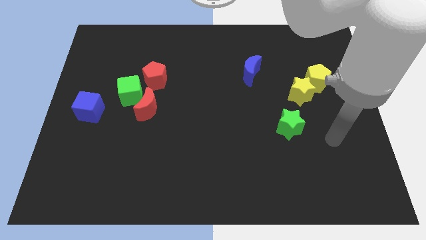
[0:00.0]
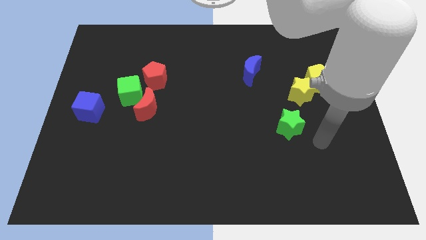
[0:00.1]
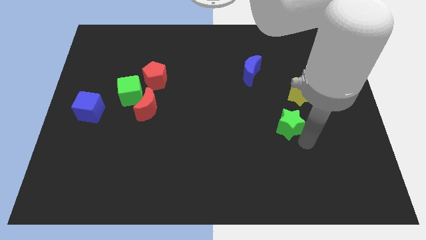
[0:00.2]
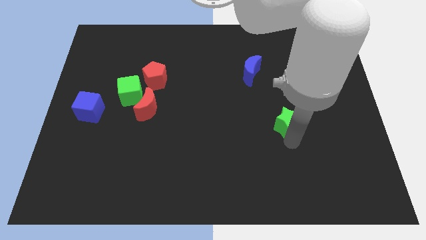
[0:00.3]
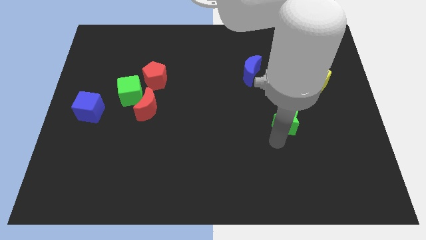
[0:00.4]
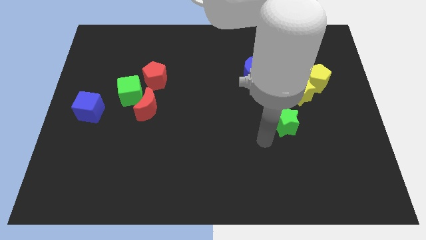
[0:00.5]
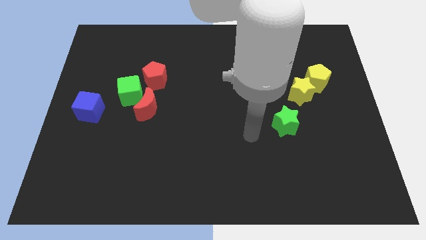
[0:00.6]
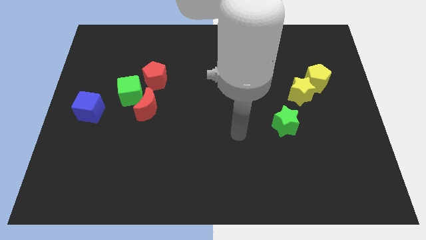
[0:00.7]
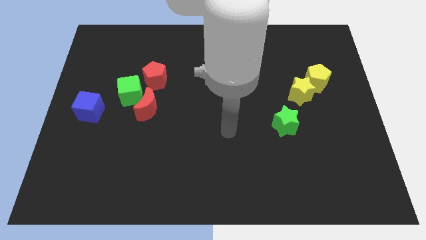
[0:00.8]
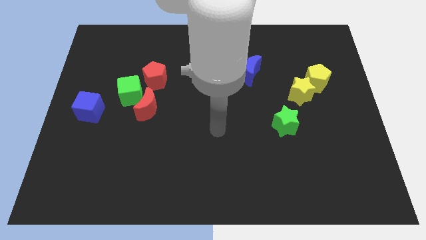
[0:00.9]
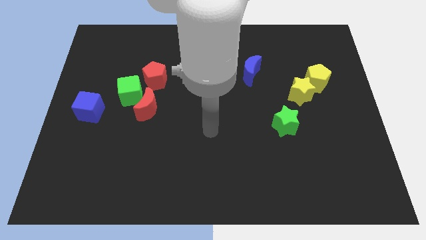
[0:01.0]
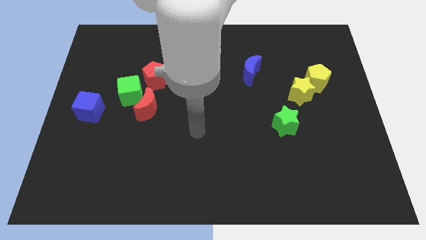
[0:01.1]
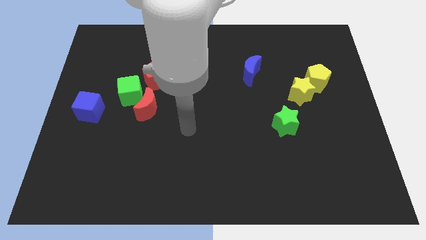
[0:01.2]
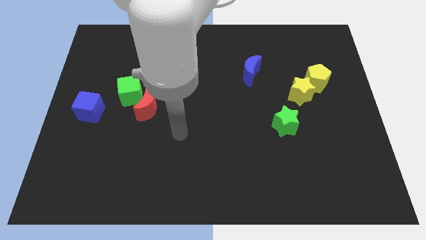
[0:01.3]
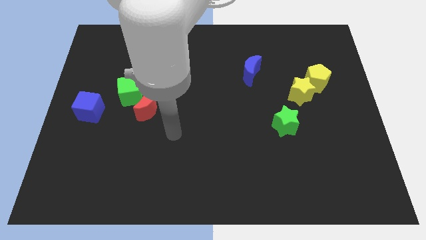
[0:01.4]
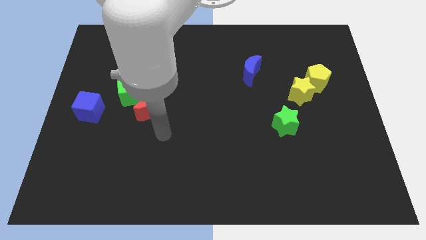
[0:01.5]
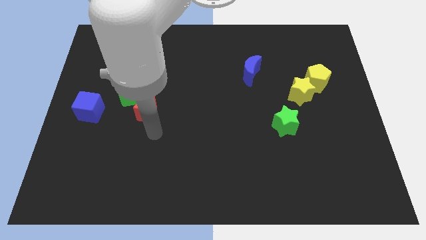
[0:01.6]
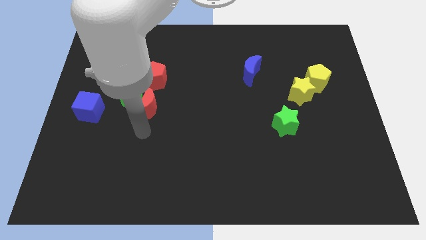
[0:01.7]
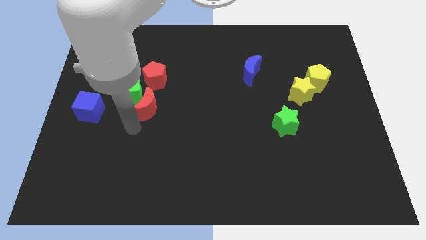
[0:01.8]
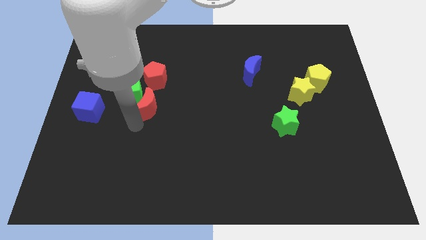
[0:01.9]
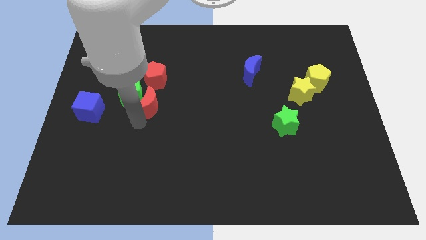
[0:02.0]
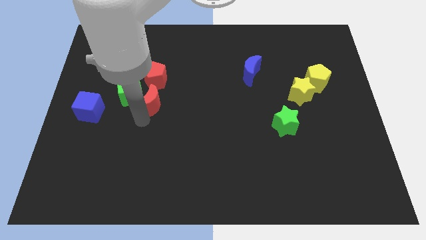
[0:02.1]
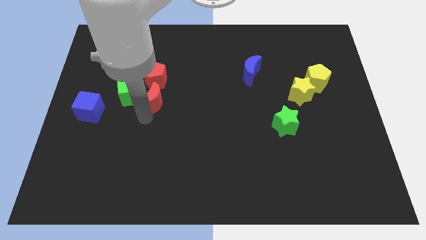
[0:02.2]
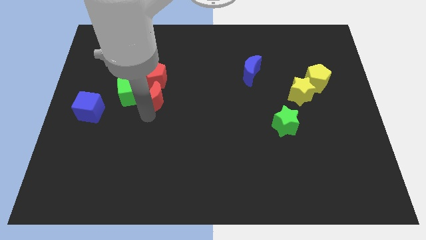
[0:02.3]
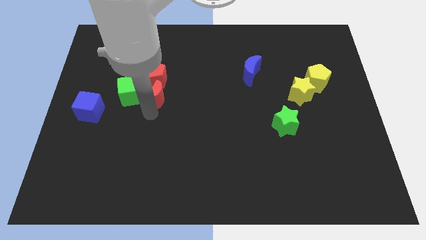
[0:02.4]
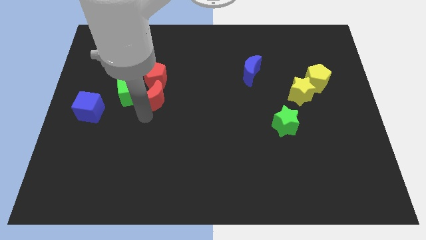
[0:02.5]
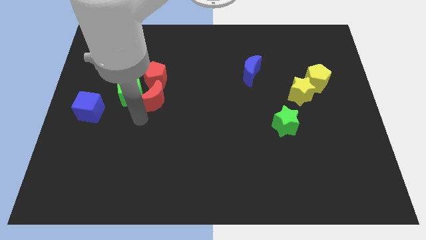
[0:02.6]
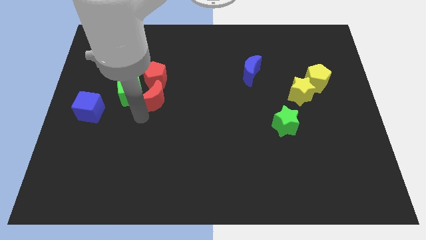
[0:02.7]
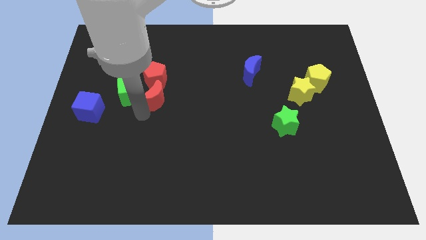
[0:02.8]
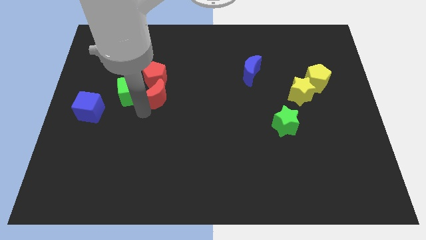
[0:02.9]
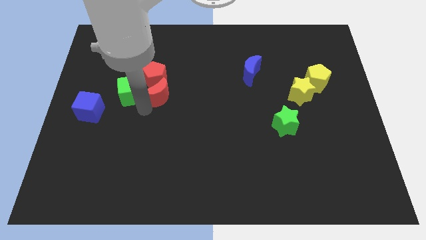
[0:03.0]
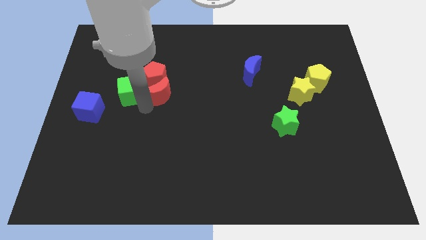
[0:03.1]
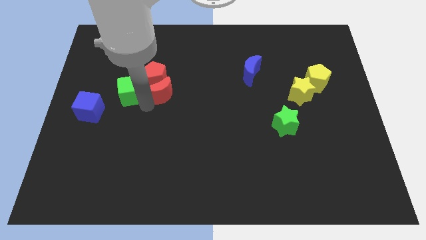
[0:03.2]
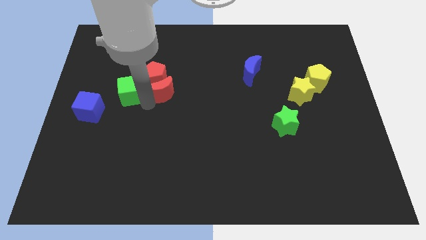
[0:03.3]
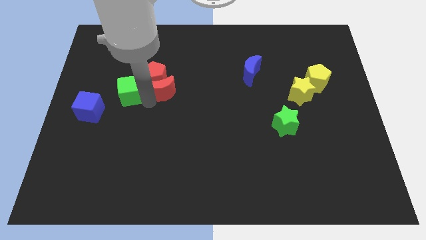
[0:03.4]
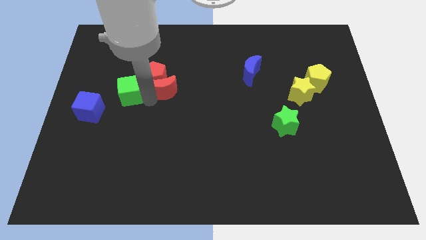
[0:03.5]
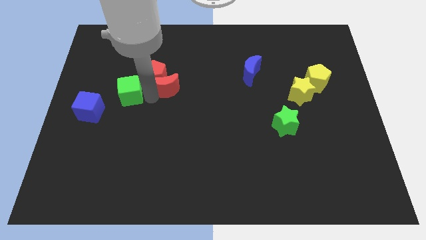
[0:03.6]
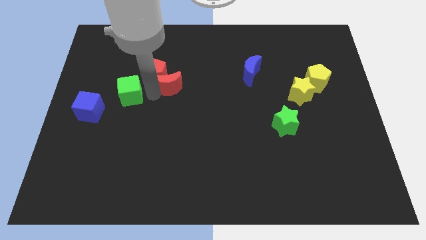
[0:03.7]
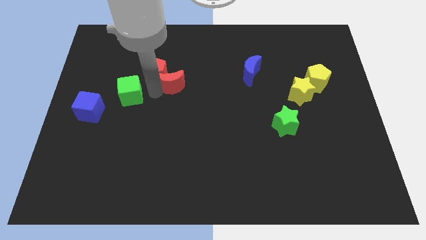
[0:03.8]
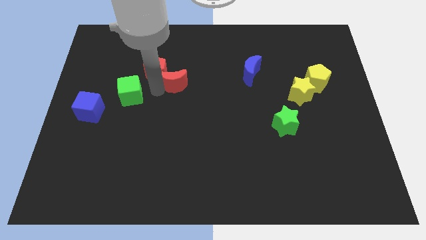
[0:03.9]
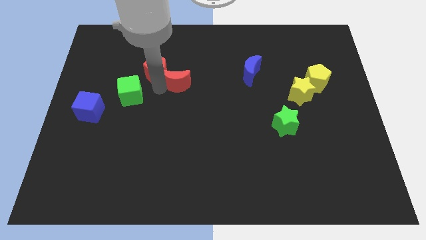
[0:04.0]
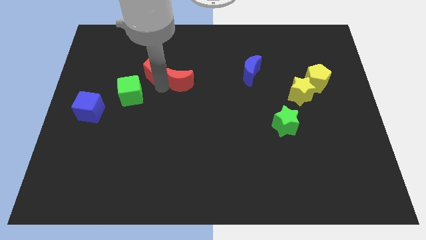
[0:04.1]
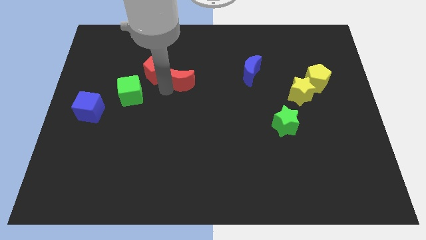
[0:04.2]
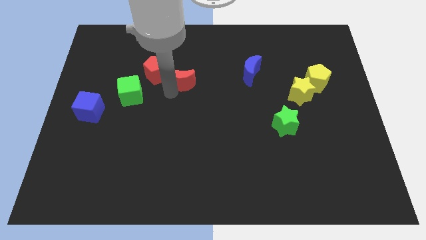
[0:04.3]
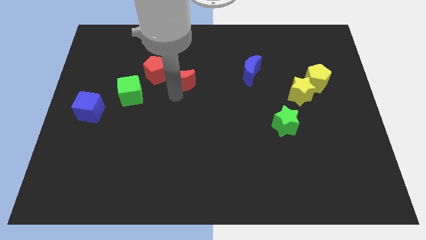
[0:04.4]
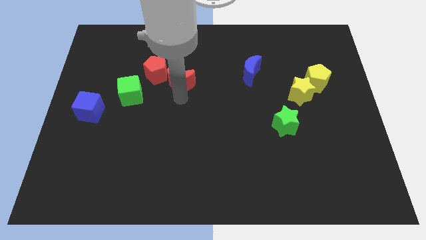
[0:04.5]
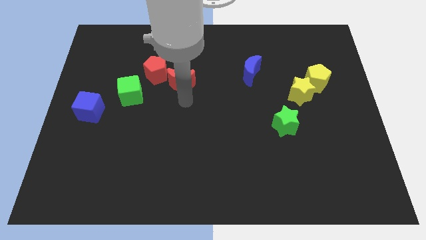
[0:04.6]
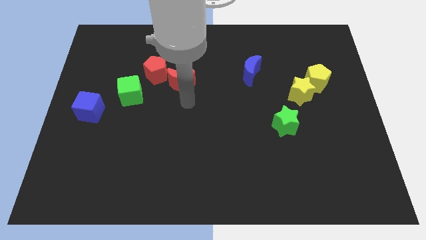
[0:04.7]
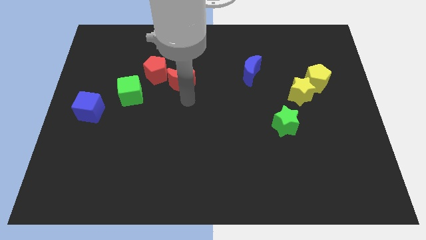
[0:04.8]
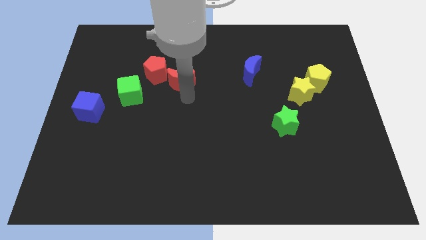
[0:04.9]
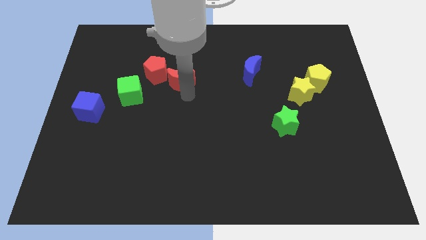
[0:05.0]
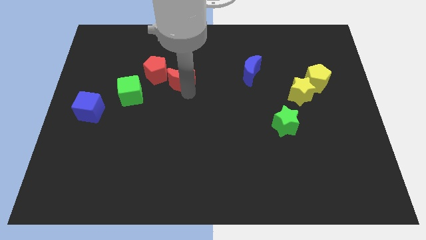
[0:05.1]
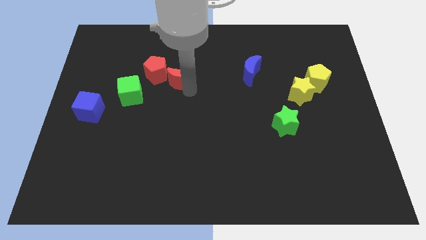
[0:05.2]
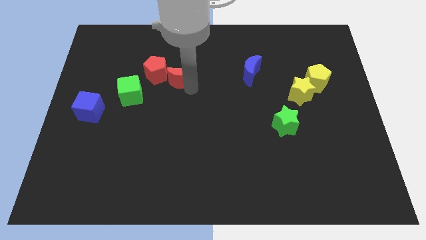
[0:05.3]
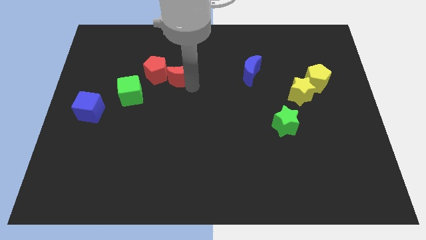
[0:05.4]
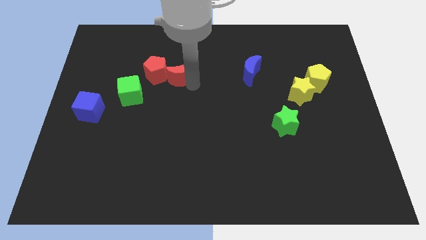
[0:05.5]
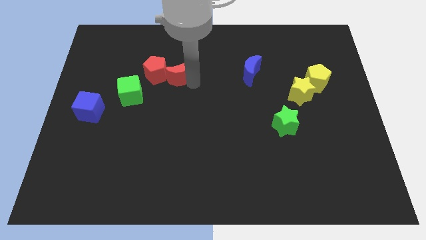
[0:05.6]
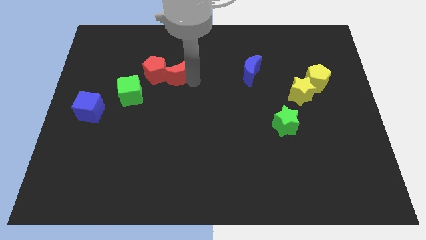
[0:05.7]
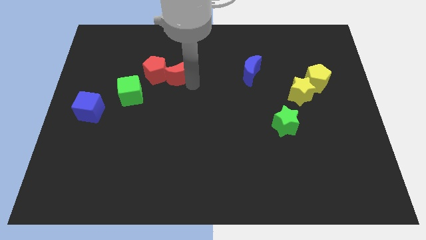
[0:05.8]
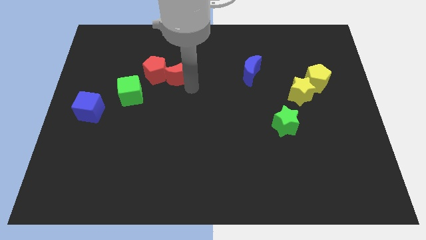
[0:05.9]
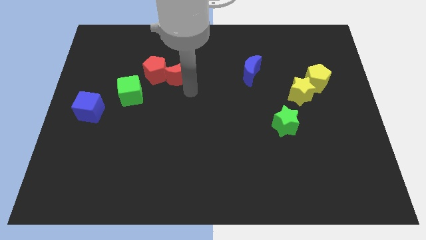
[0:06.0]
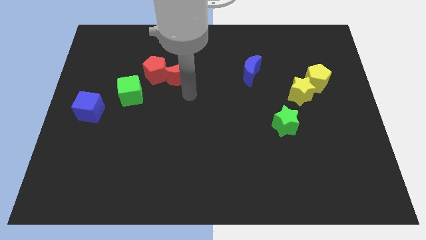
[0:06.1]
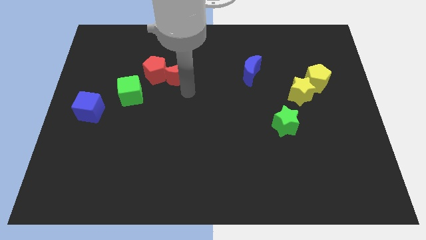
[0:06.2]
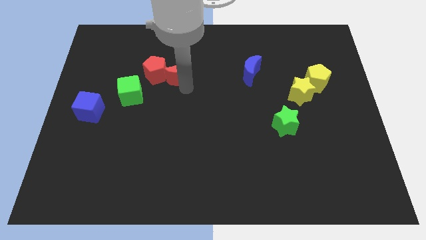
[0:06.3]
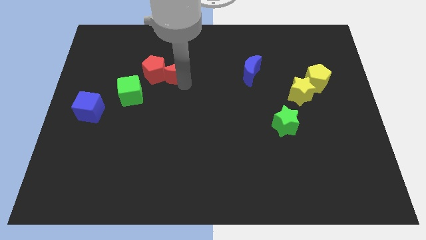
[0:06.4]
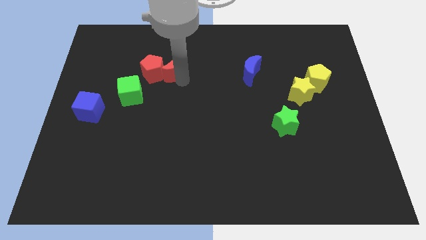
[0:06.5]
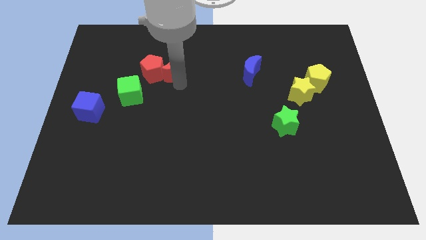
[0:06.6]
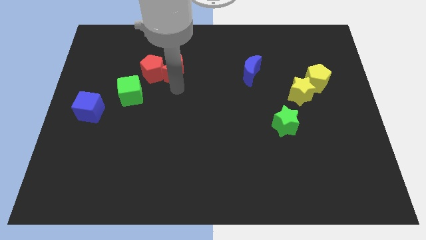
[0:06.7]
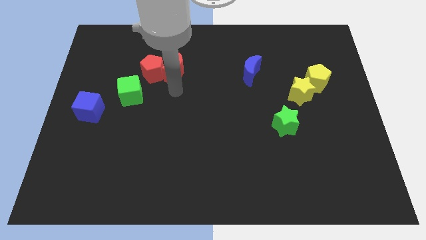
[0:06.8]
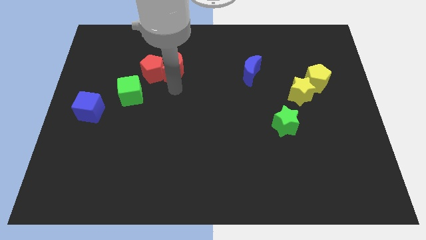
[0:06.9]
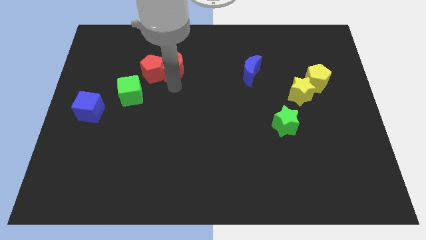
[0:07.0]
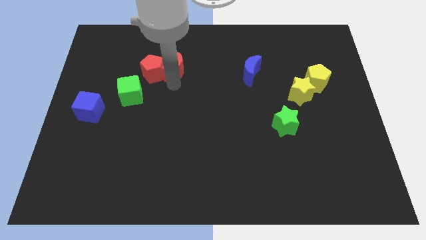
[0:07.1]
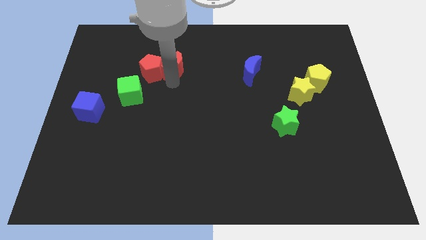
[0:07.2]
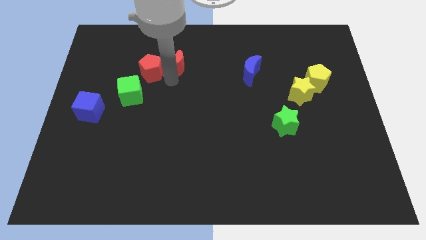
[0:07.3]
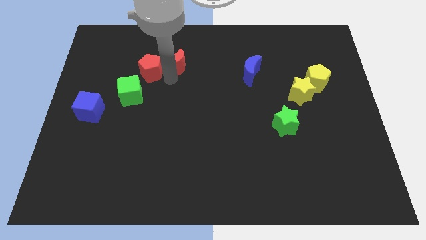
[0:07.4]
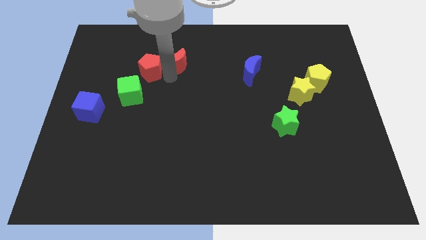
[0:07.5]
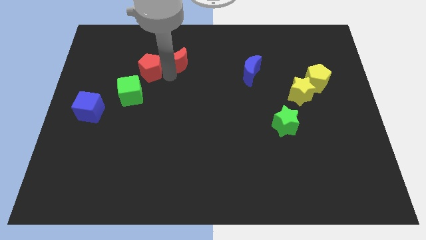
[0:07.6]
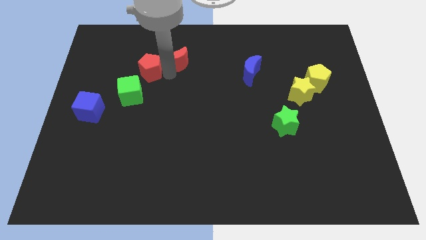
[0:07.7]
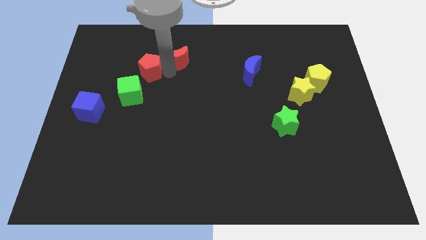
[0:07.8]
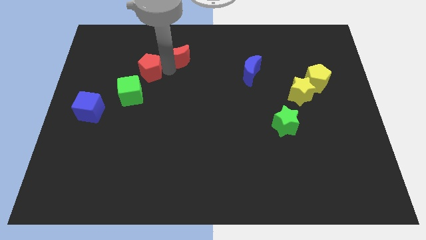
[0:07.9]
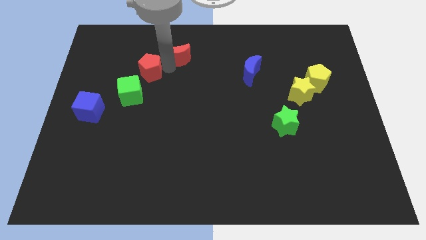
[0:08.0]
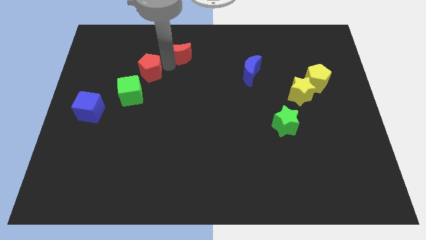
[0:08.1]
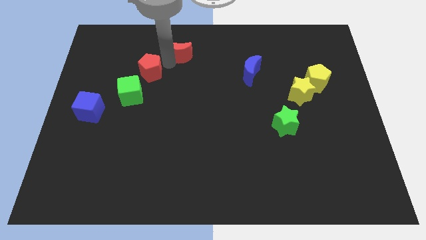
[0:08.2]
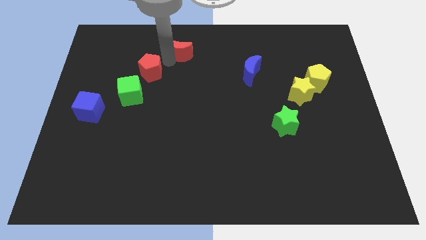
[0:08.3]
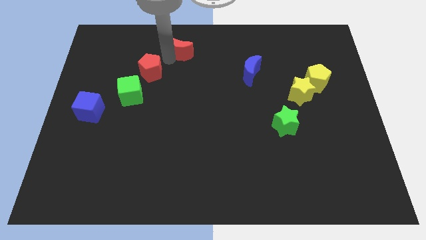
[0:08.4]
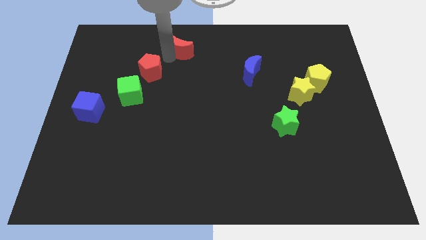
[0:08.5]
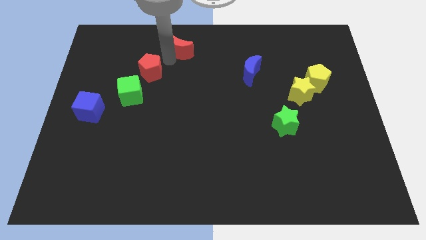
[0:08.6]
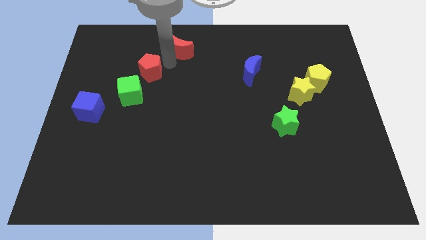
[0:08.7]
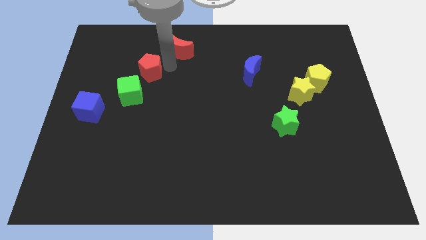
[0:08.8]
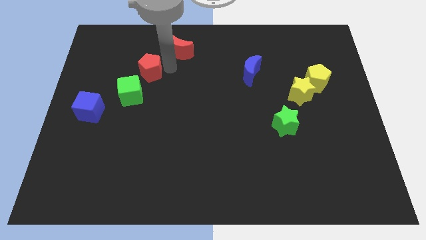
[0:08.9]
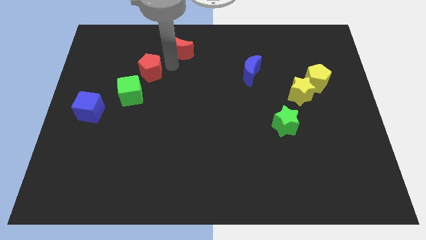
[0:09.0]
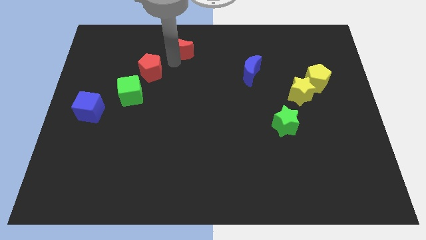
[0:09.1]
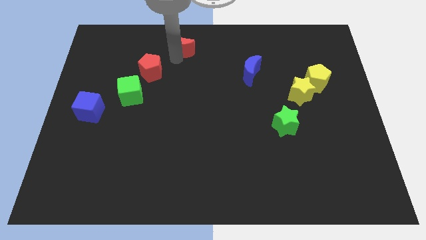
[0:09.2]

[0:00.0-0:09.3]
push the red moon to the top side
